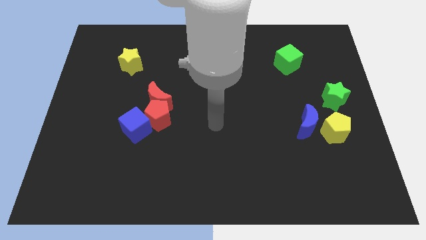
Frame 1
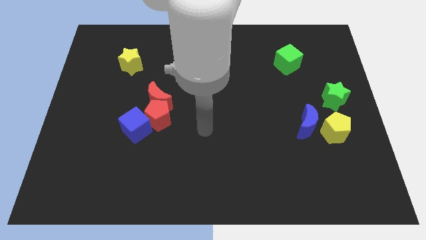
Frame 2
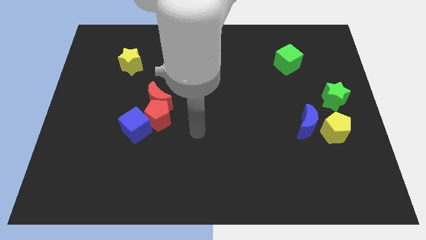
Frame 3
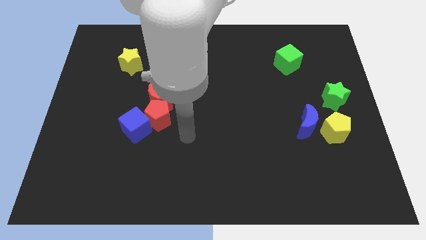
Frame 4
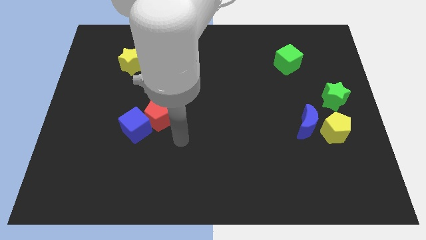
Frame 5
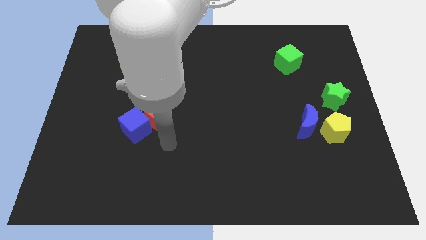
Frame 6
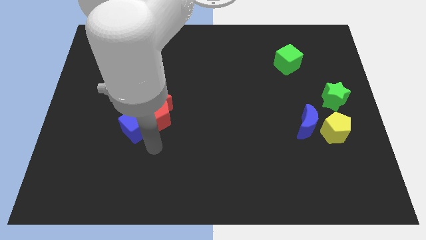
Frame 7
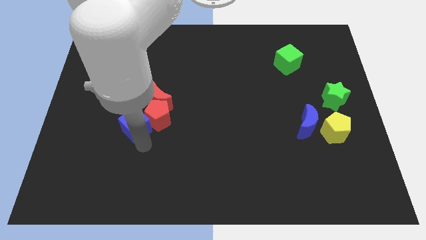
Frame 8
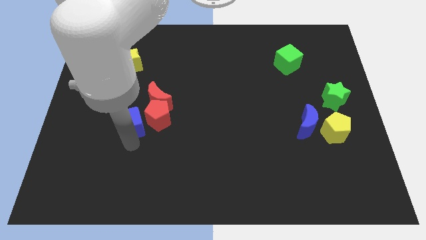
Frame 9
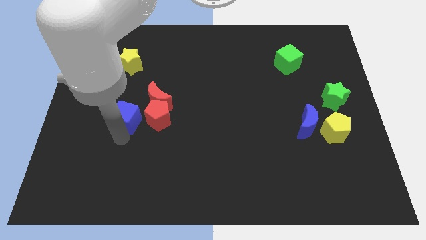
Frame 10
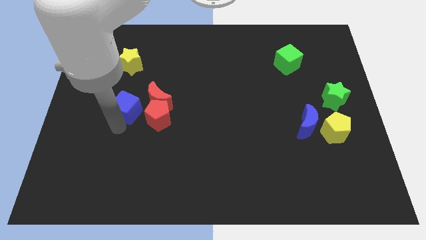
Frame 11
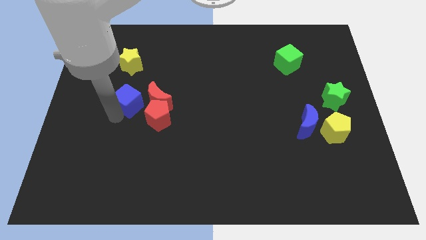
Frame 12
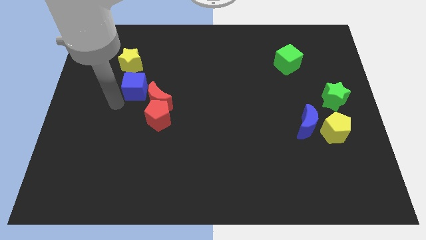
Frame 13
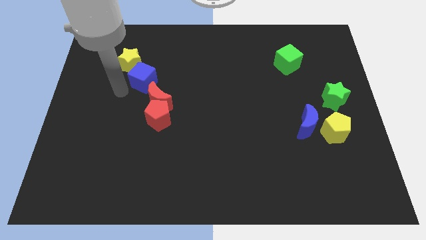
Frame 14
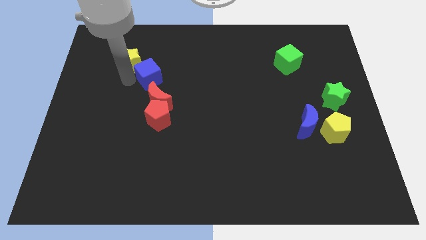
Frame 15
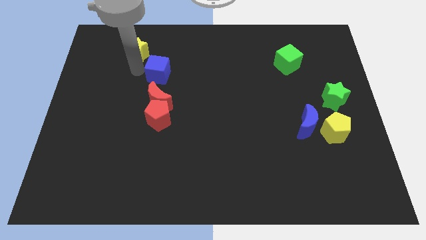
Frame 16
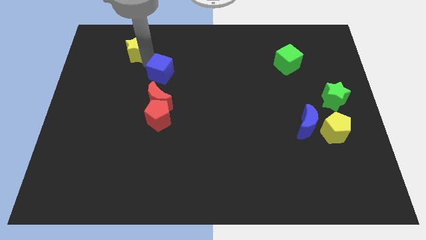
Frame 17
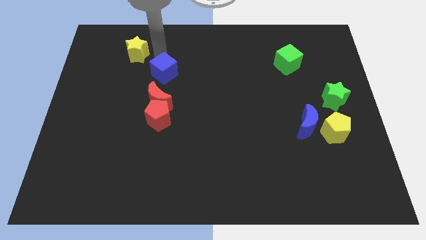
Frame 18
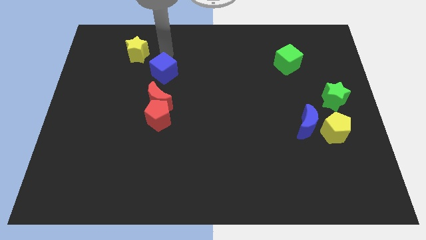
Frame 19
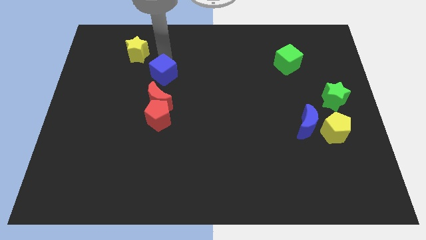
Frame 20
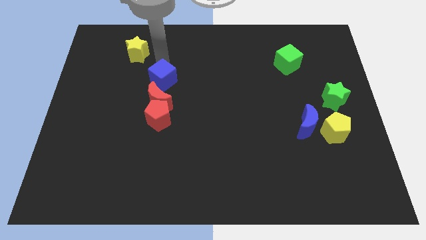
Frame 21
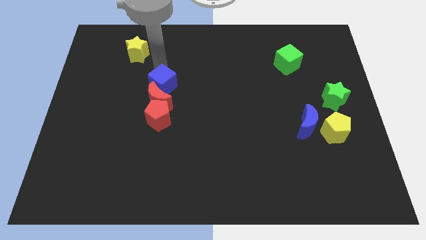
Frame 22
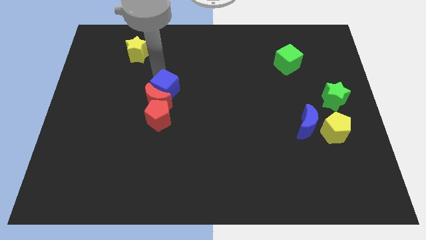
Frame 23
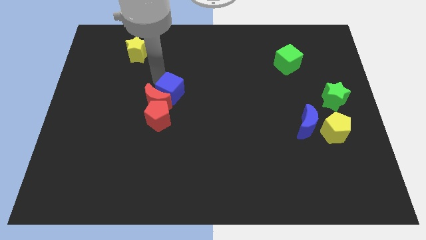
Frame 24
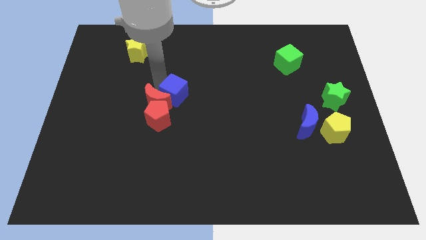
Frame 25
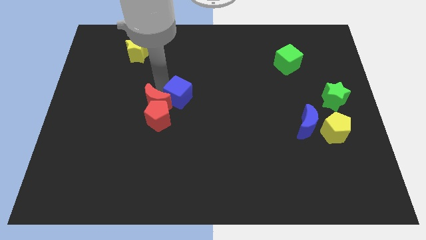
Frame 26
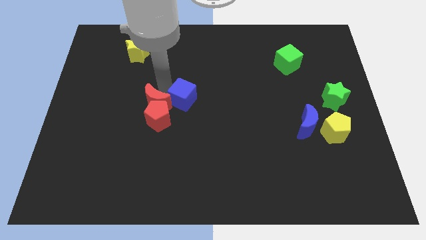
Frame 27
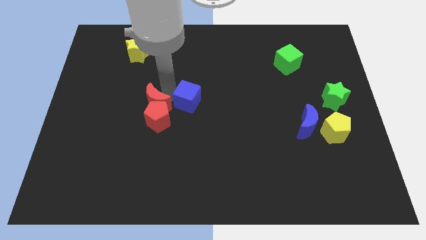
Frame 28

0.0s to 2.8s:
slightly move the blue cube to the right

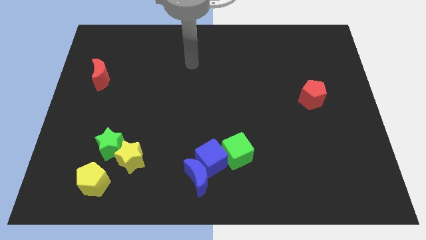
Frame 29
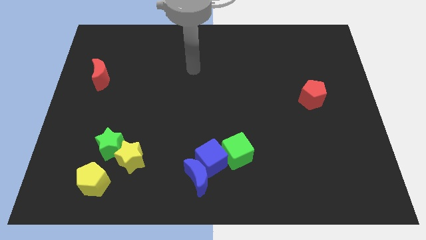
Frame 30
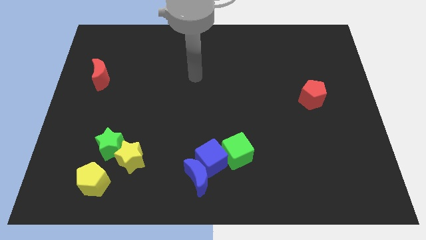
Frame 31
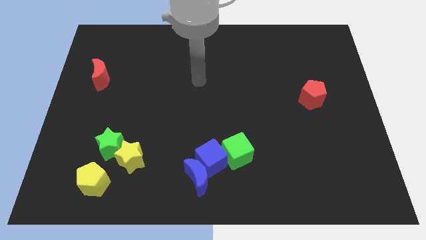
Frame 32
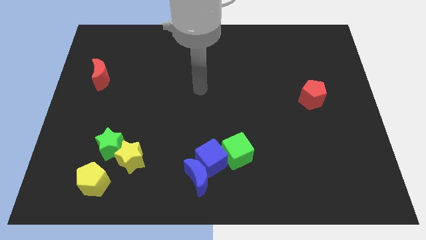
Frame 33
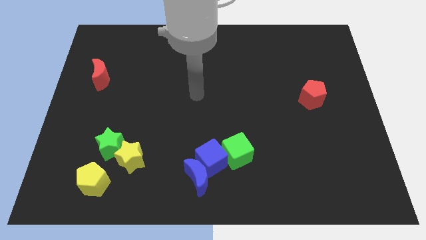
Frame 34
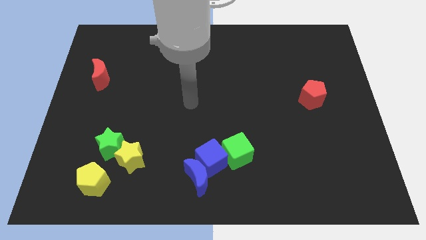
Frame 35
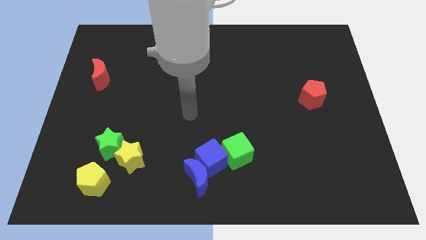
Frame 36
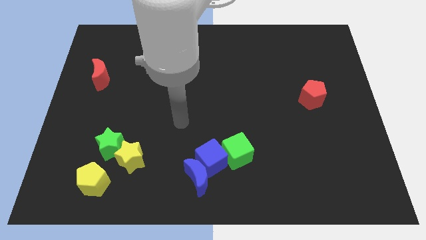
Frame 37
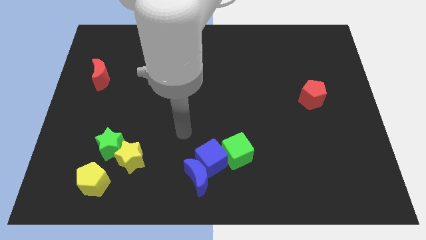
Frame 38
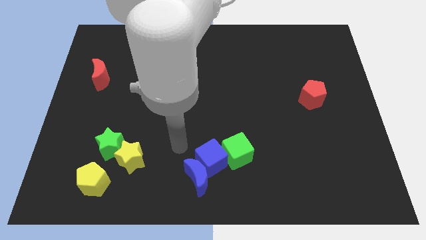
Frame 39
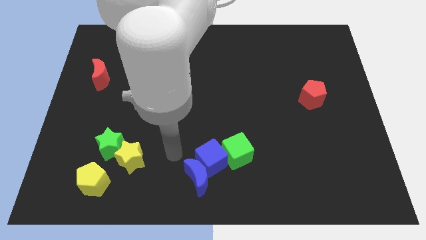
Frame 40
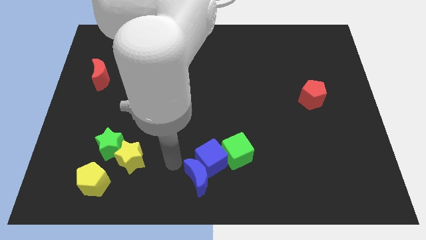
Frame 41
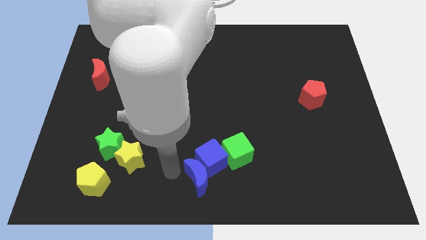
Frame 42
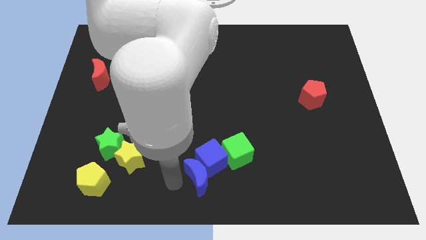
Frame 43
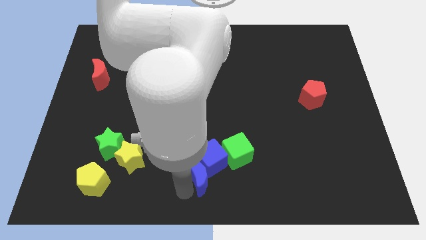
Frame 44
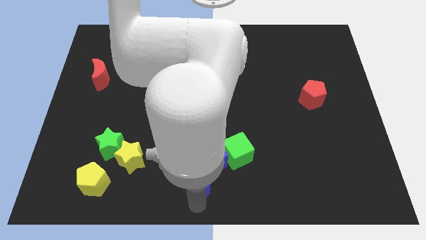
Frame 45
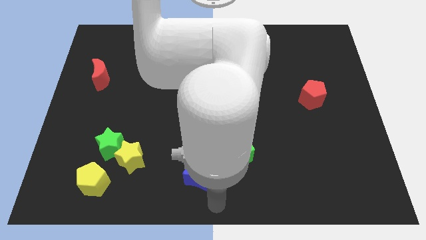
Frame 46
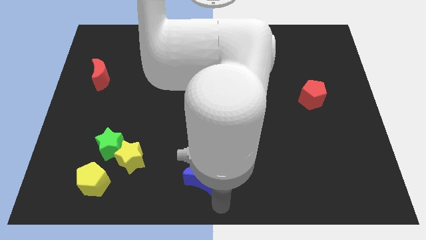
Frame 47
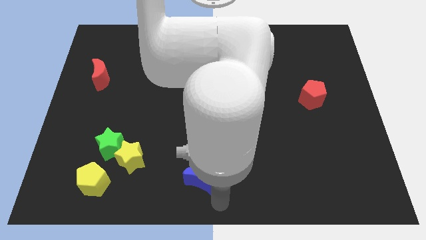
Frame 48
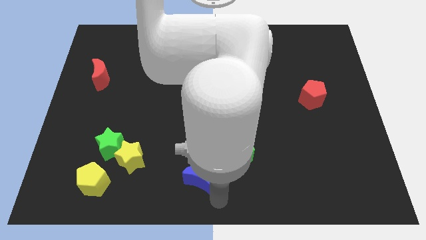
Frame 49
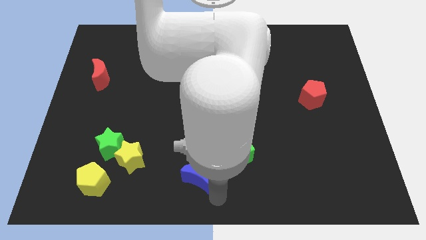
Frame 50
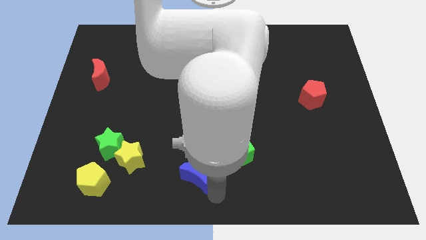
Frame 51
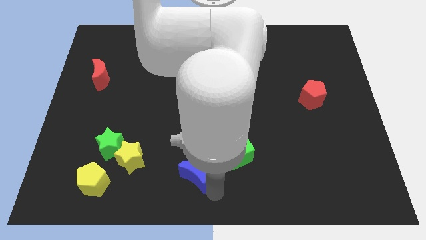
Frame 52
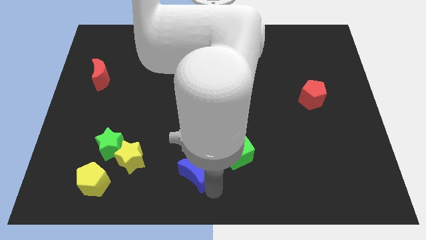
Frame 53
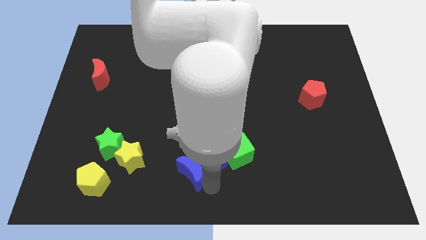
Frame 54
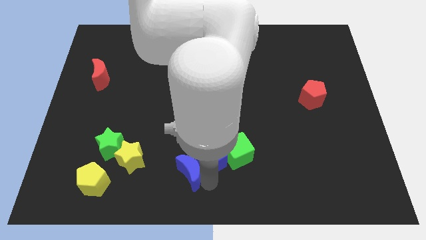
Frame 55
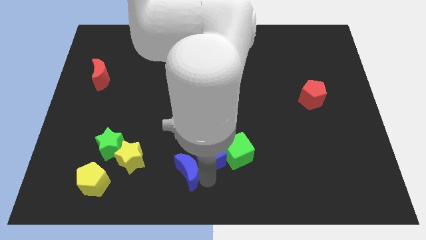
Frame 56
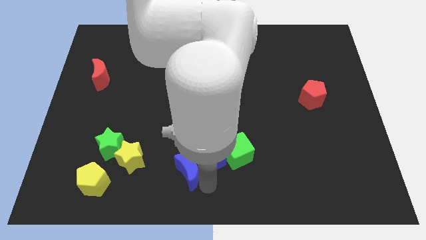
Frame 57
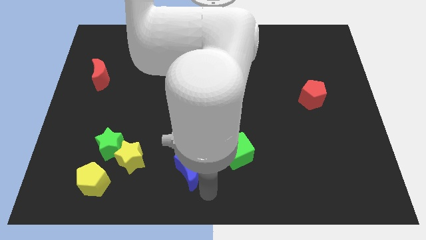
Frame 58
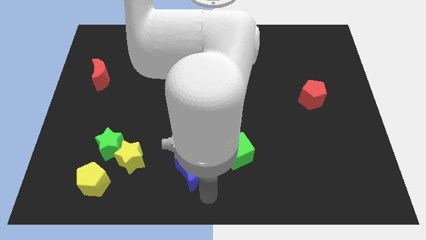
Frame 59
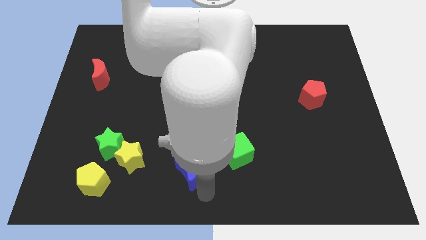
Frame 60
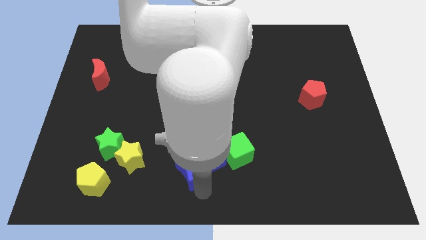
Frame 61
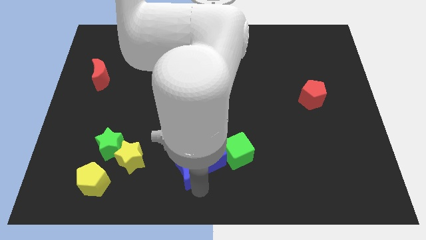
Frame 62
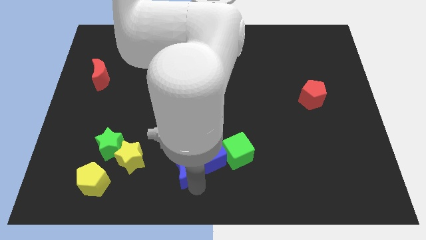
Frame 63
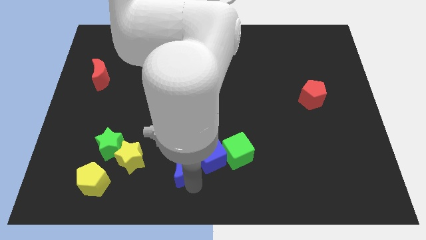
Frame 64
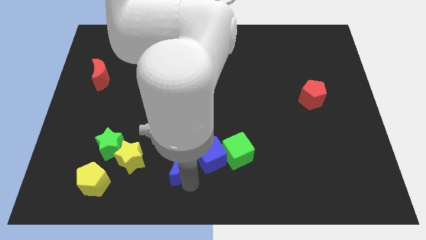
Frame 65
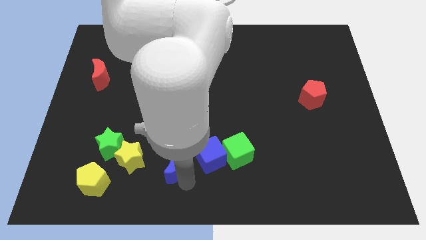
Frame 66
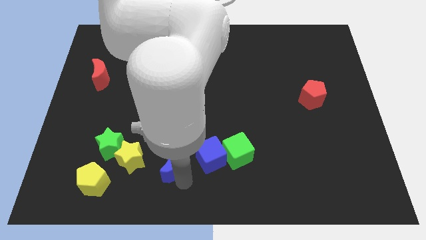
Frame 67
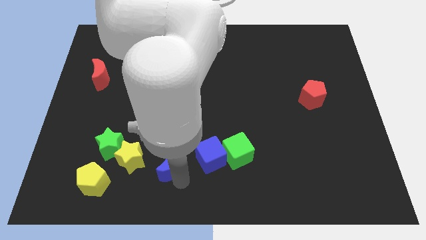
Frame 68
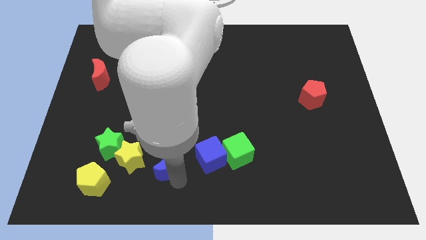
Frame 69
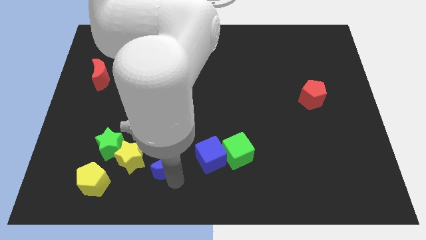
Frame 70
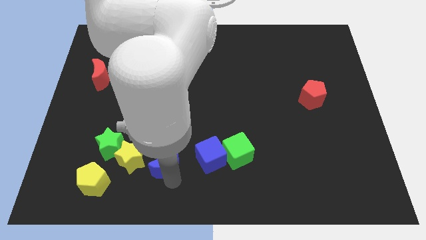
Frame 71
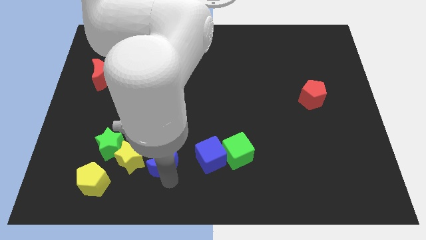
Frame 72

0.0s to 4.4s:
slightly push the blue moon diagonally upwards and left

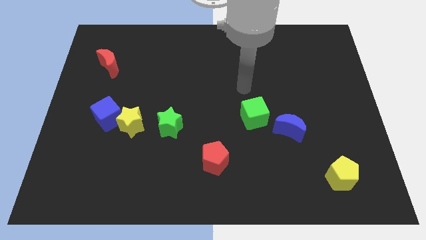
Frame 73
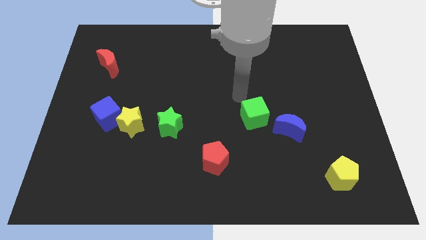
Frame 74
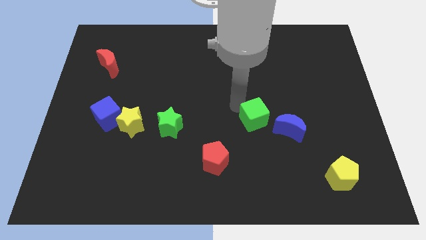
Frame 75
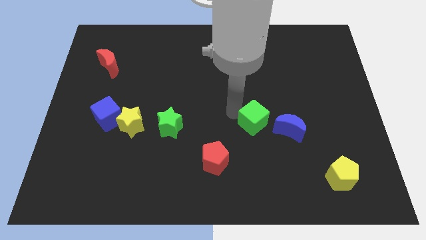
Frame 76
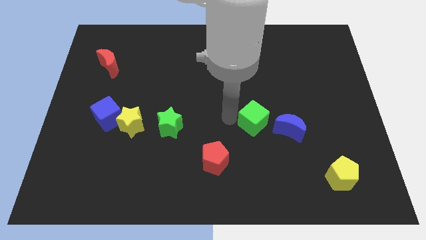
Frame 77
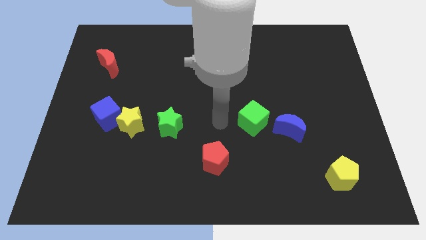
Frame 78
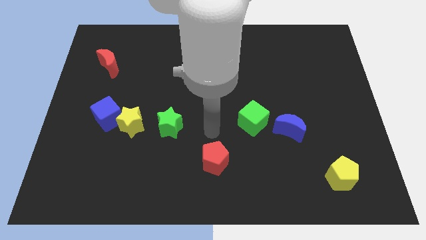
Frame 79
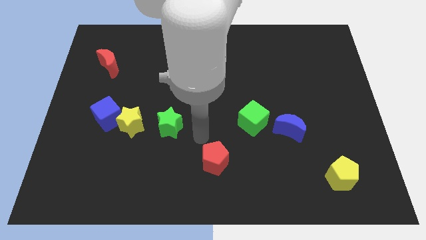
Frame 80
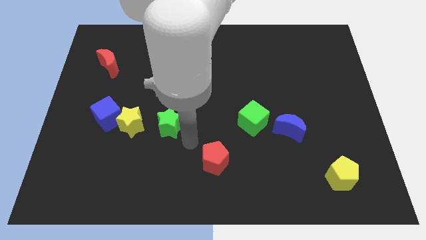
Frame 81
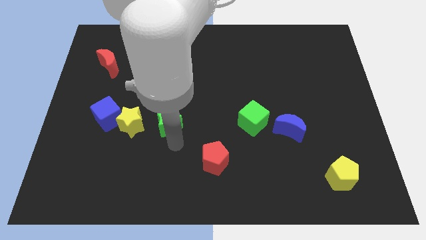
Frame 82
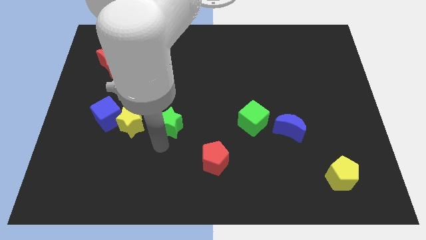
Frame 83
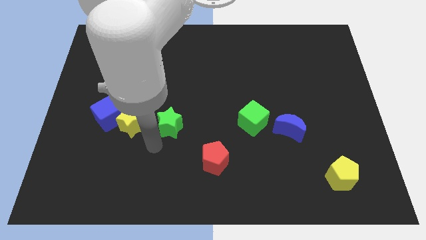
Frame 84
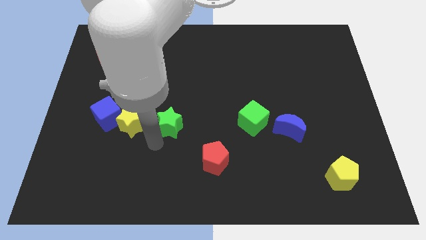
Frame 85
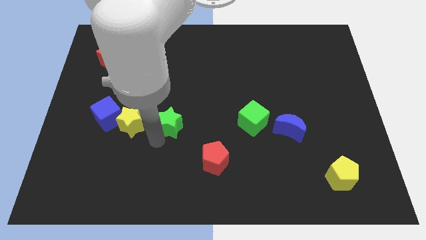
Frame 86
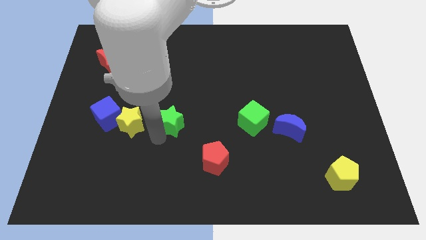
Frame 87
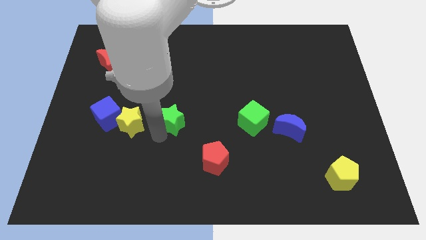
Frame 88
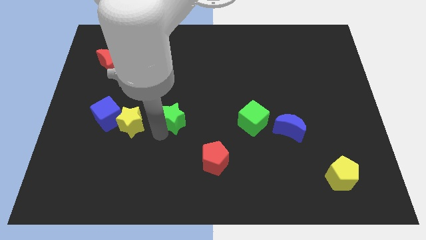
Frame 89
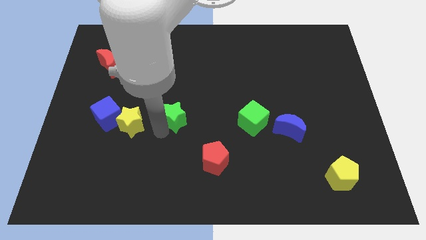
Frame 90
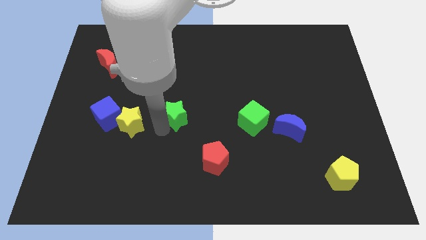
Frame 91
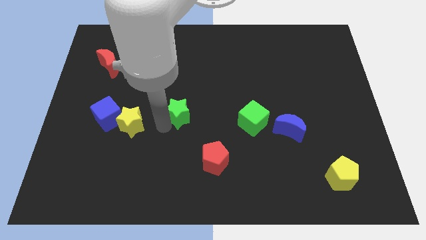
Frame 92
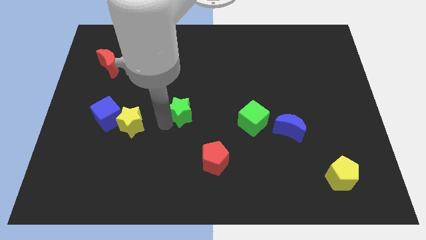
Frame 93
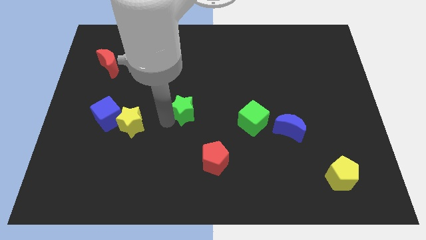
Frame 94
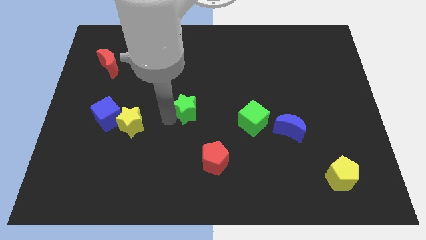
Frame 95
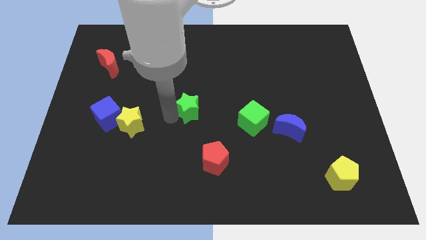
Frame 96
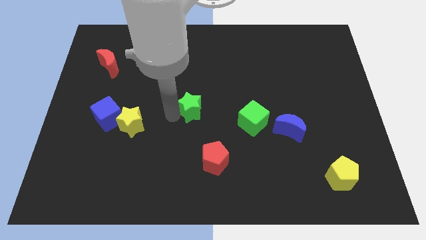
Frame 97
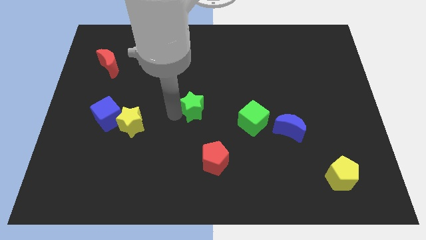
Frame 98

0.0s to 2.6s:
push the green star diagonally up and right a little
